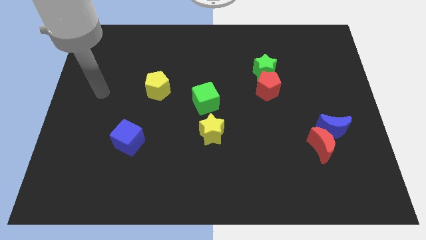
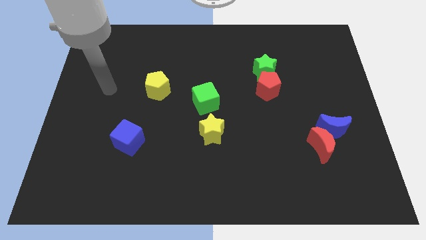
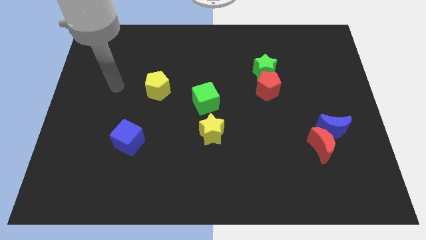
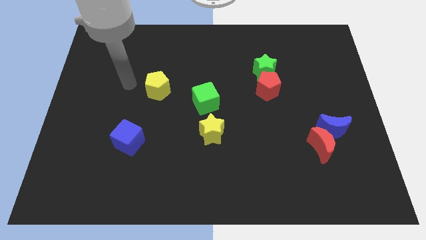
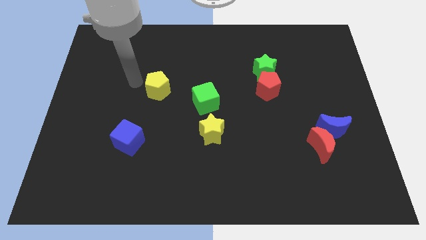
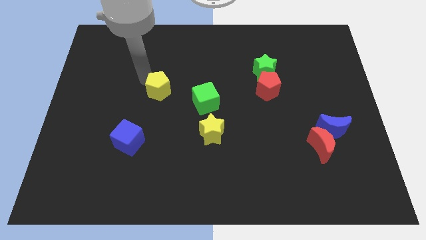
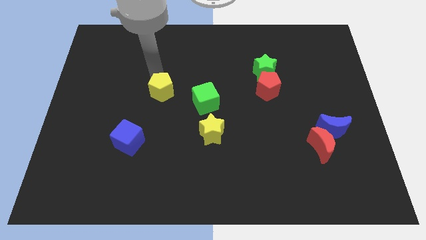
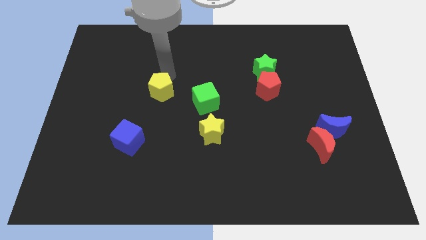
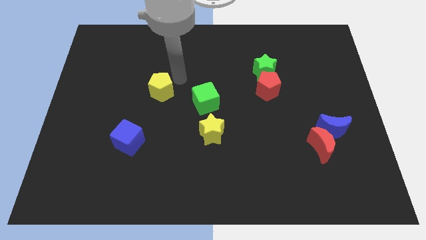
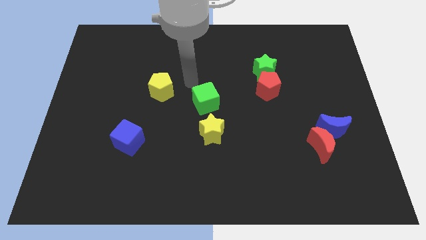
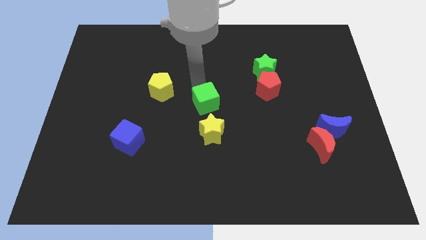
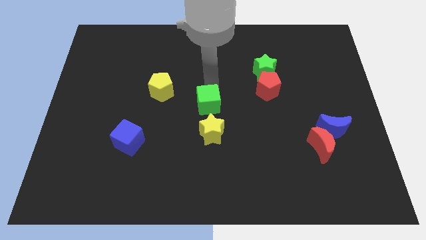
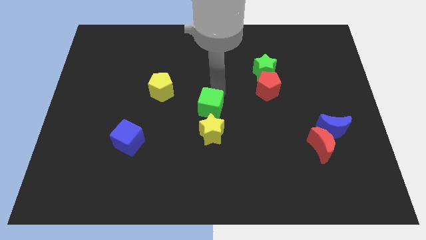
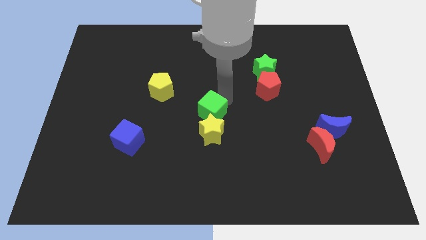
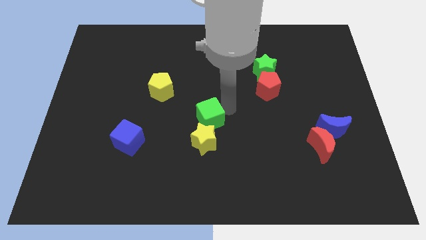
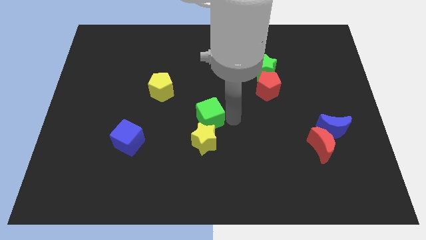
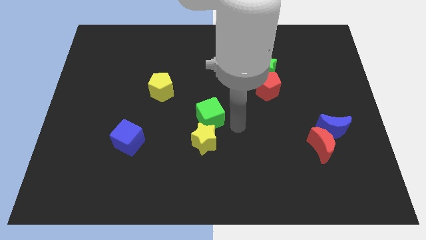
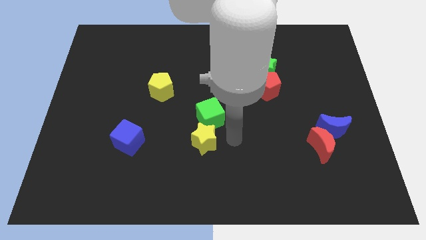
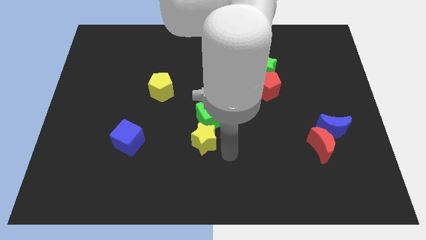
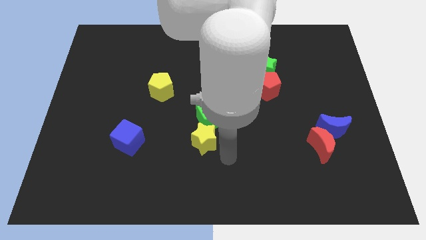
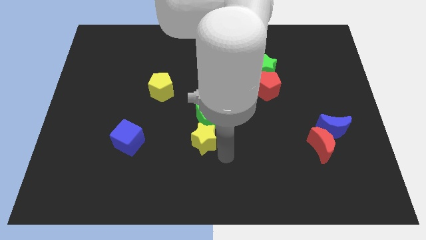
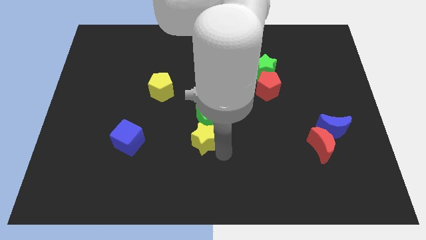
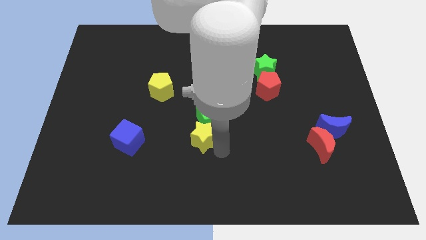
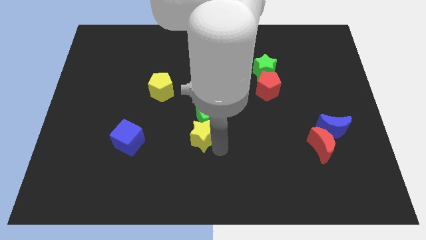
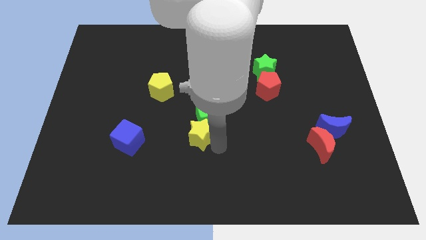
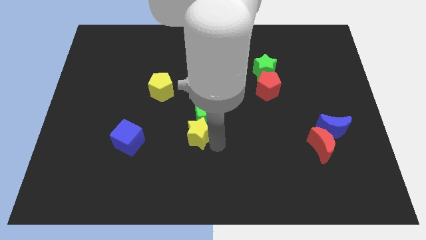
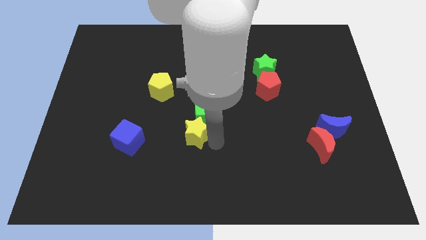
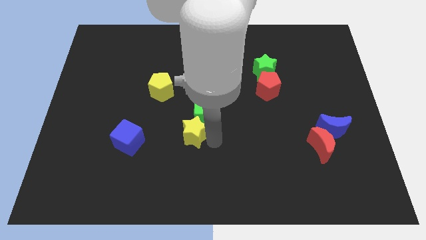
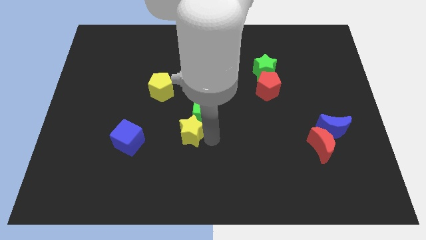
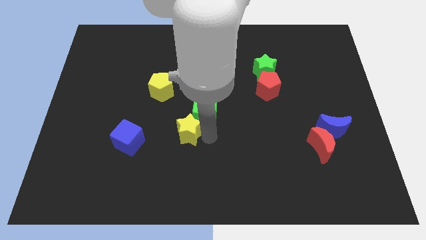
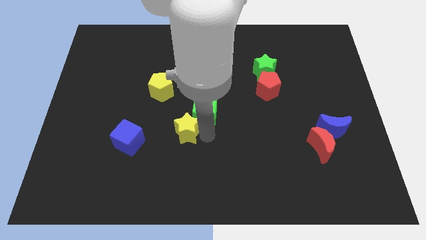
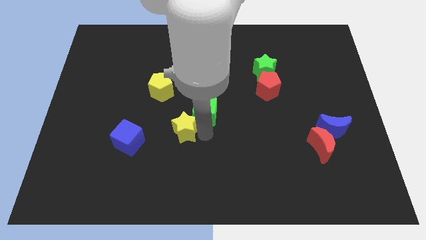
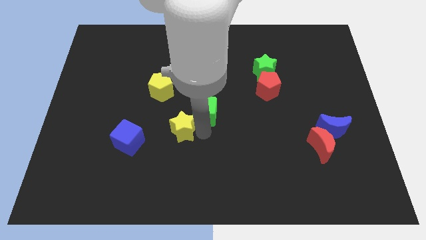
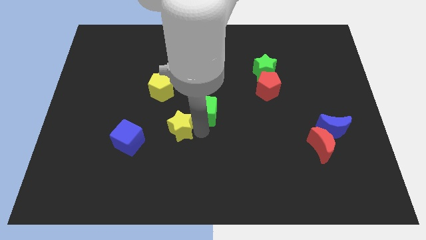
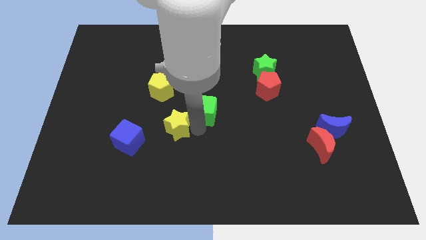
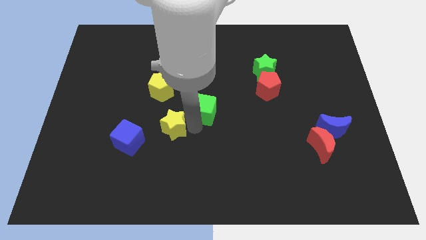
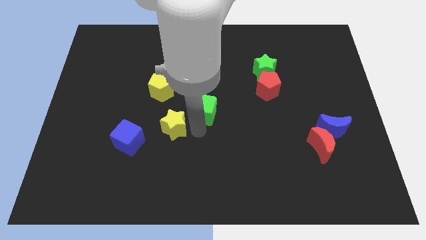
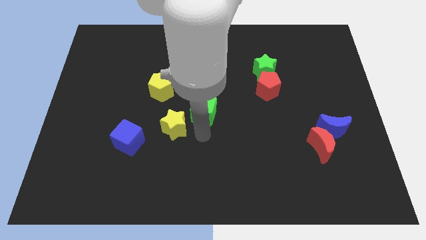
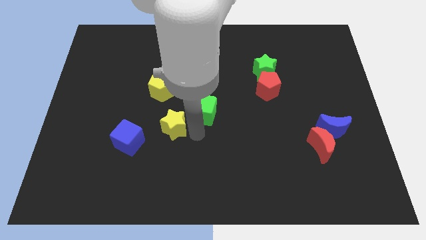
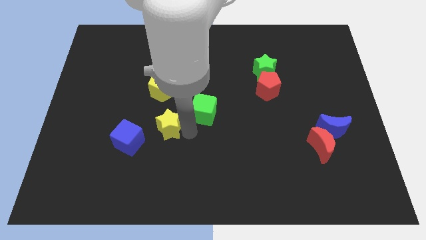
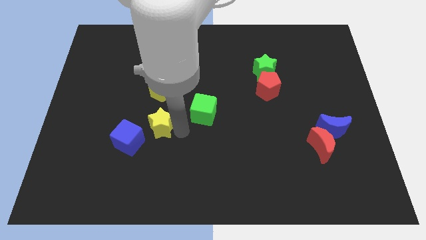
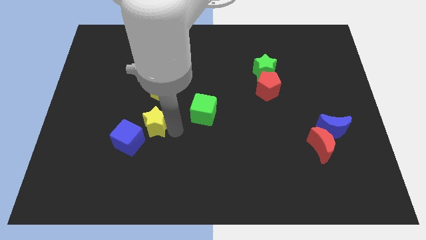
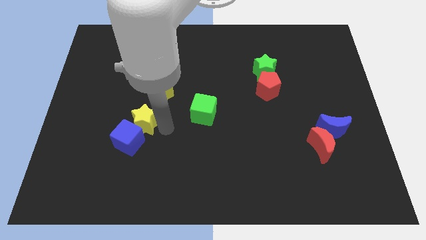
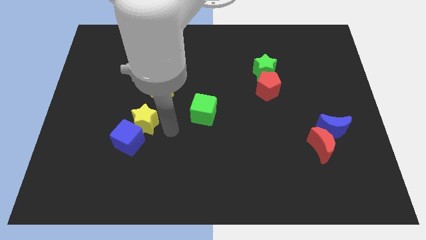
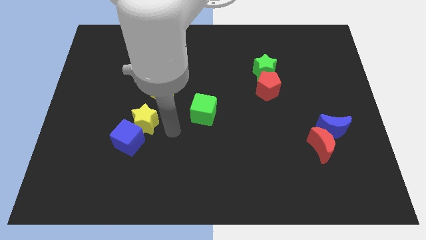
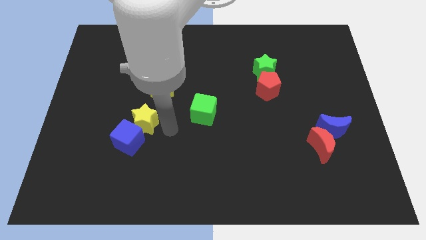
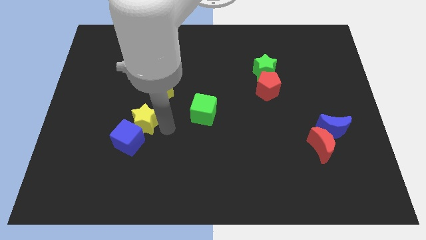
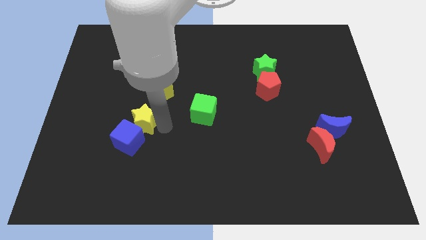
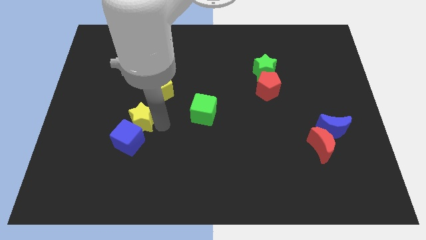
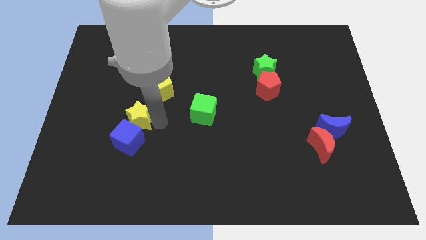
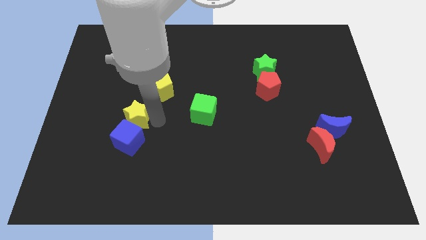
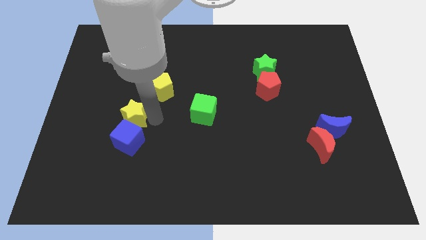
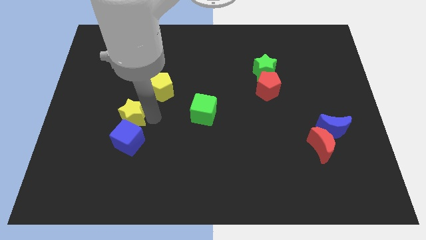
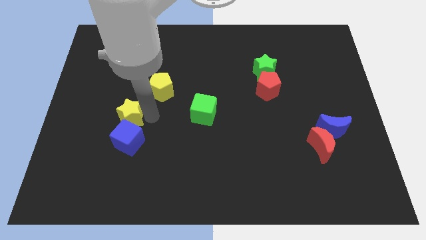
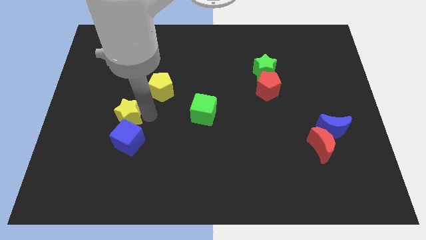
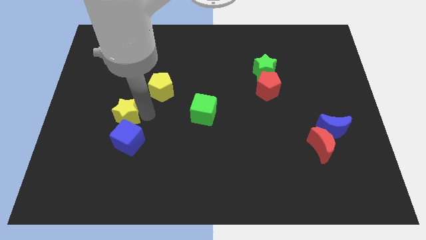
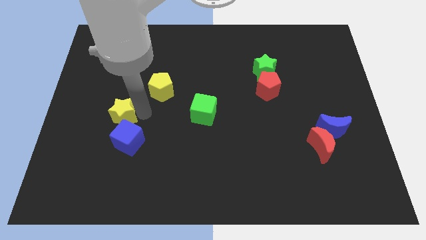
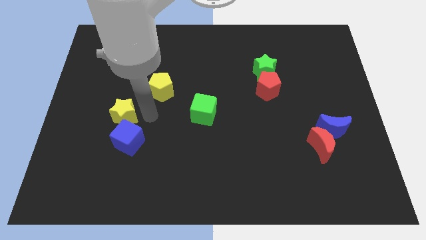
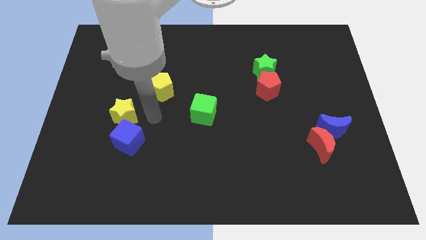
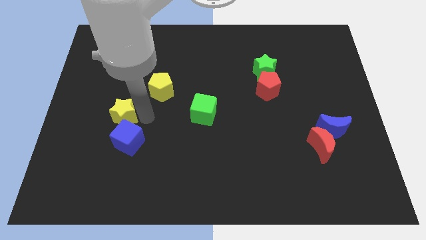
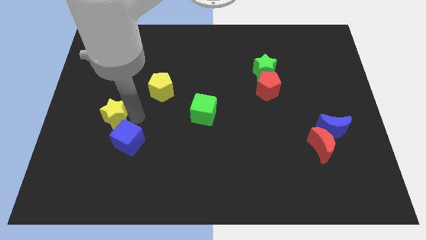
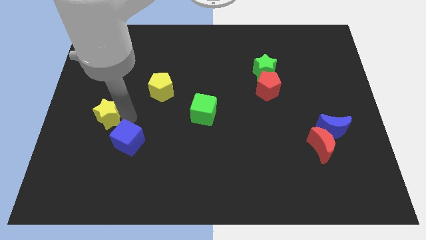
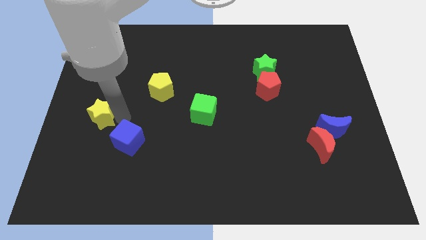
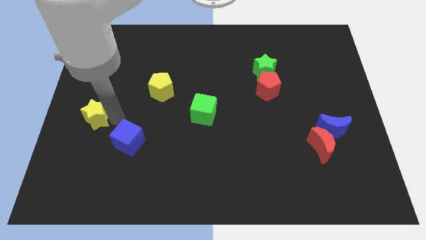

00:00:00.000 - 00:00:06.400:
push the yellow star to the center left

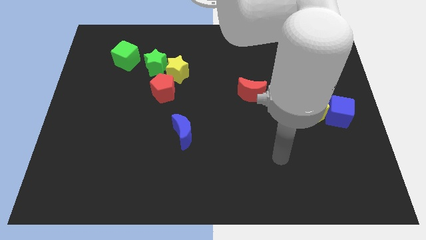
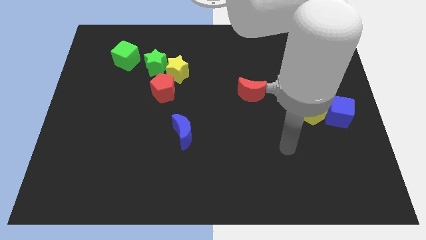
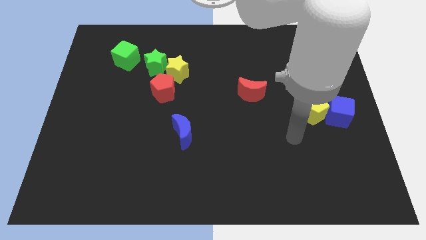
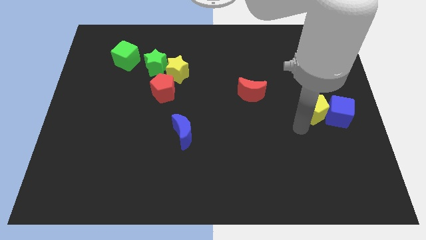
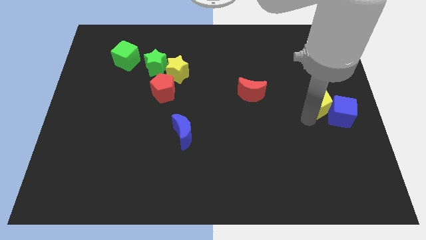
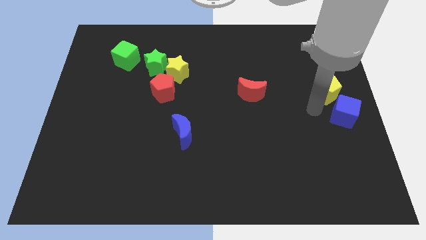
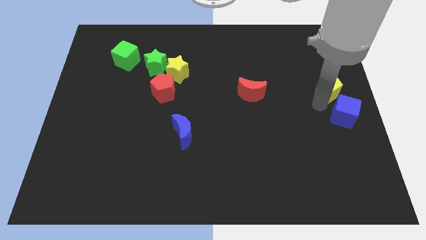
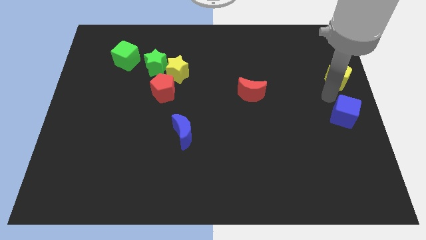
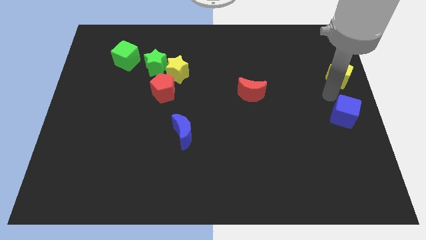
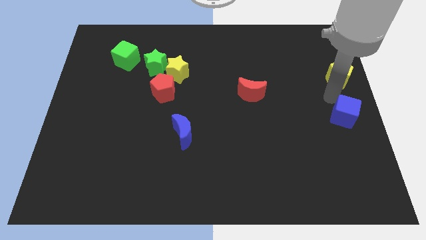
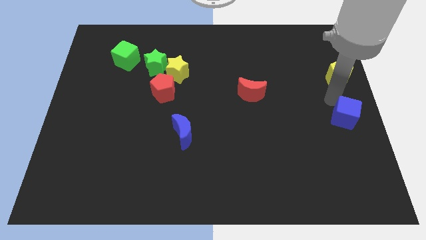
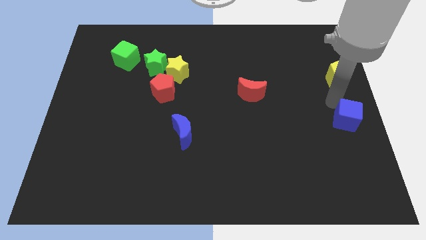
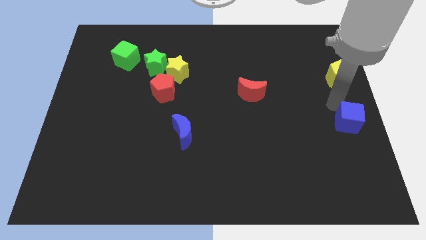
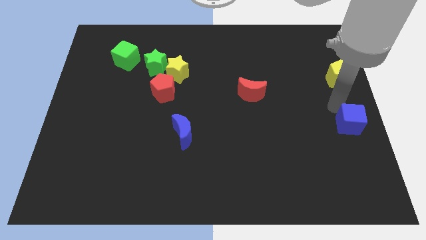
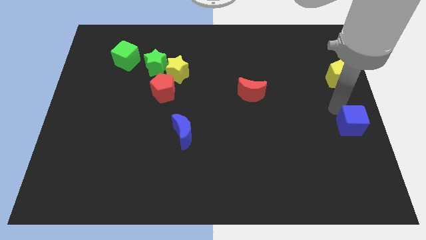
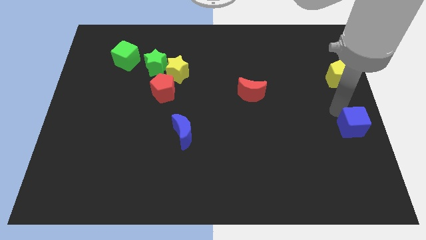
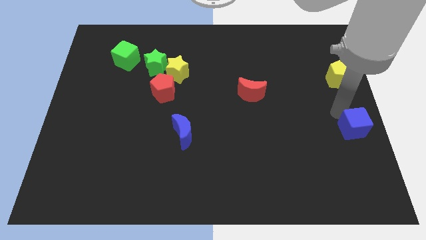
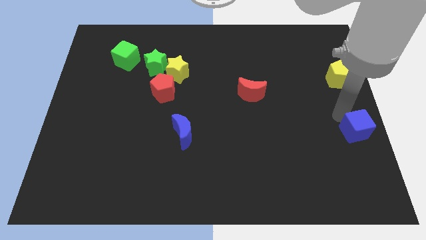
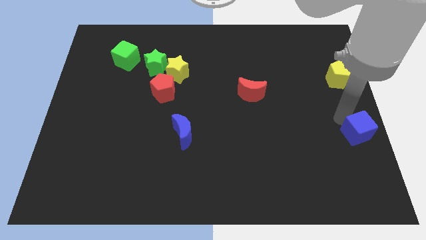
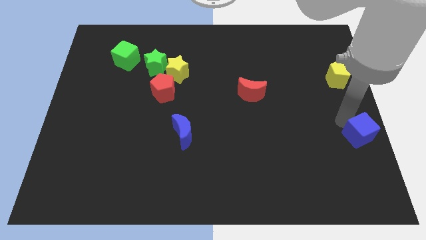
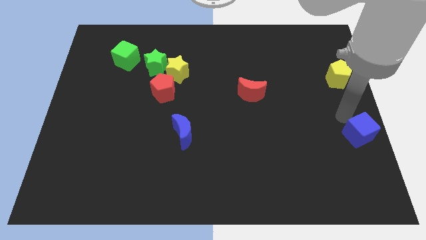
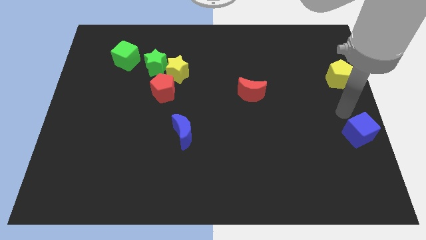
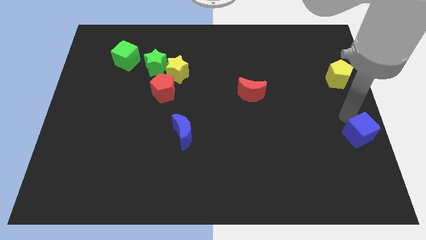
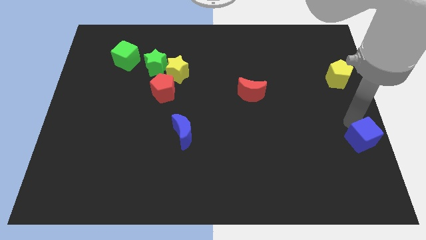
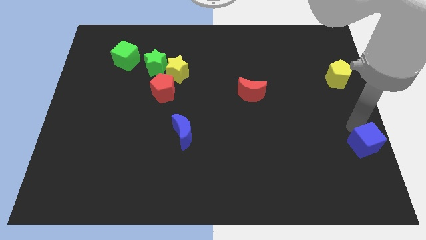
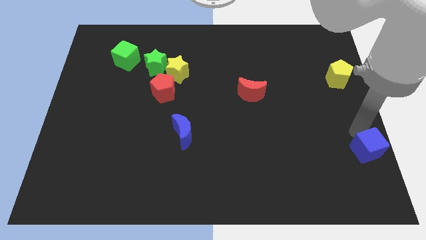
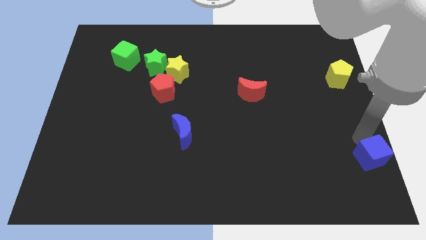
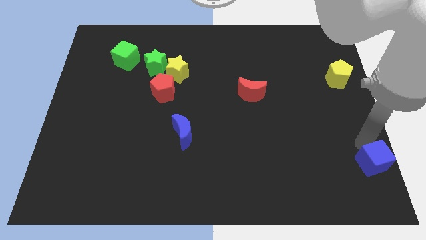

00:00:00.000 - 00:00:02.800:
slide the blue cube to the bottom right
